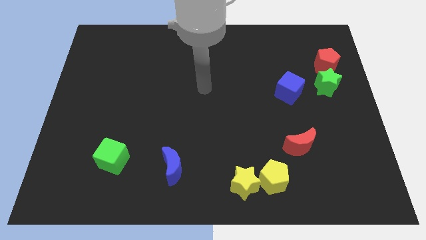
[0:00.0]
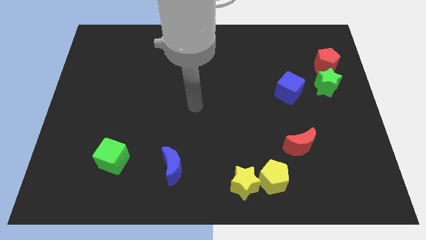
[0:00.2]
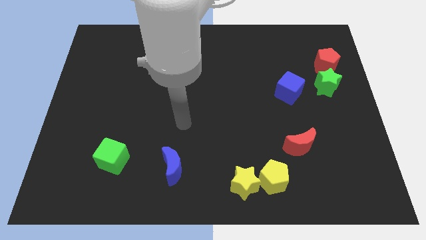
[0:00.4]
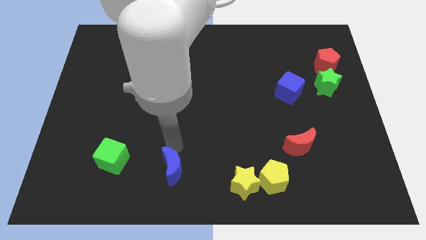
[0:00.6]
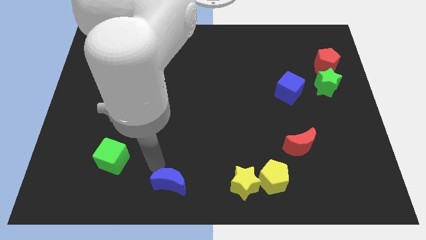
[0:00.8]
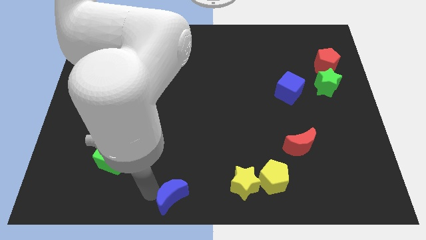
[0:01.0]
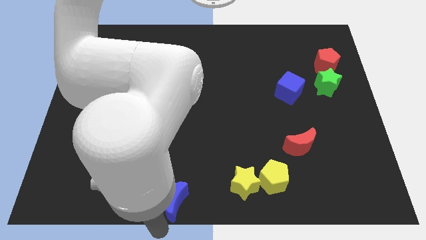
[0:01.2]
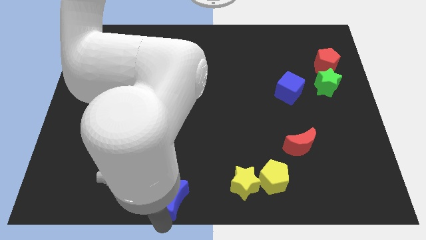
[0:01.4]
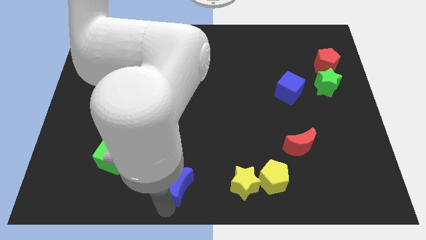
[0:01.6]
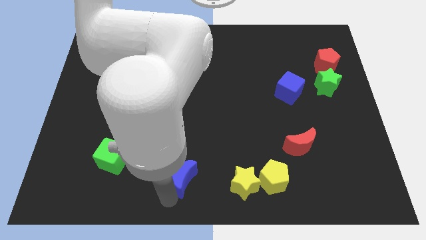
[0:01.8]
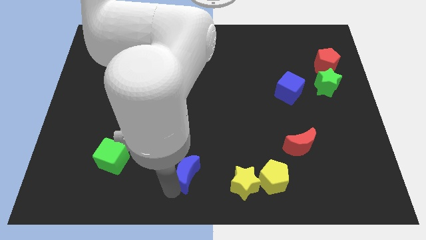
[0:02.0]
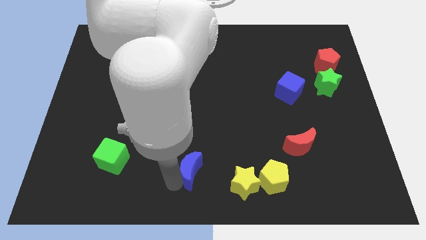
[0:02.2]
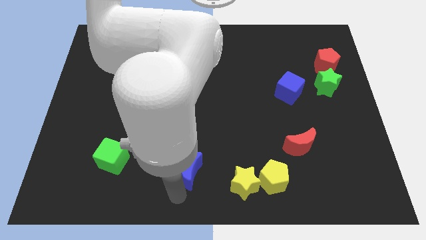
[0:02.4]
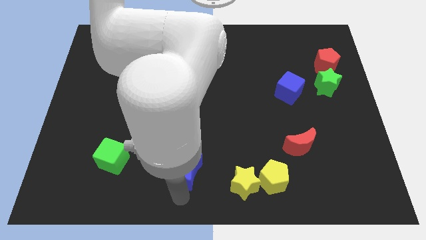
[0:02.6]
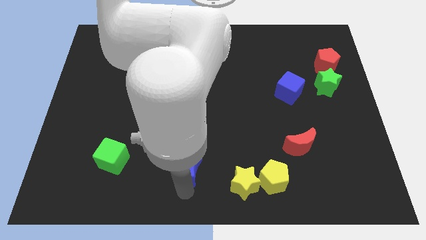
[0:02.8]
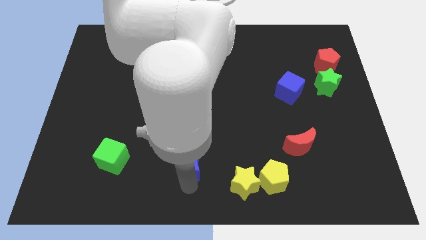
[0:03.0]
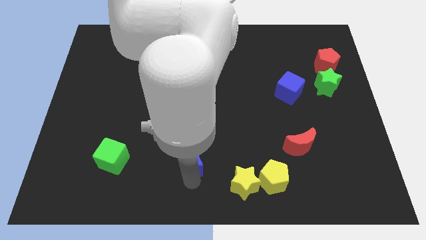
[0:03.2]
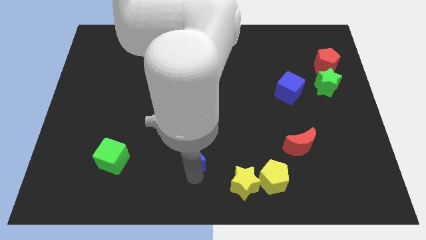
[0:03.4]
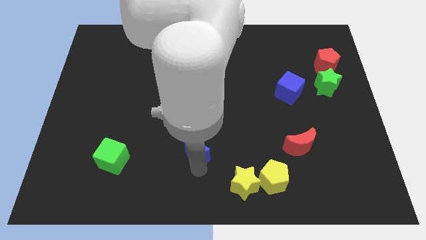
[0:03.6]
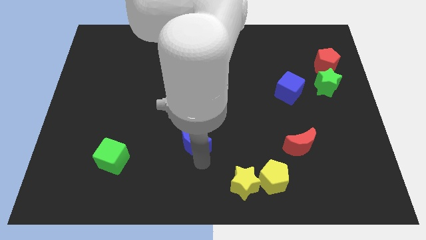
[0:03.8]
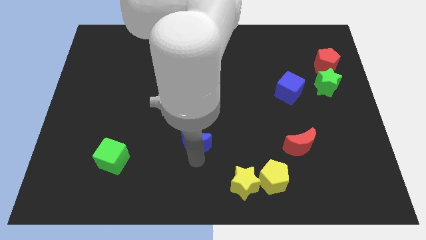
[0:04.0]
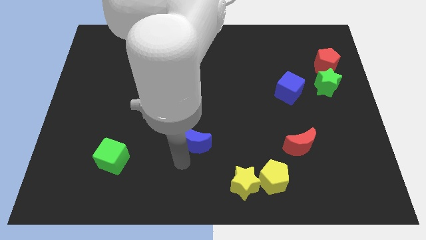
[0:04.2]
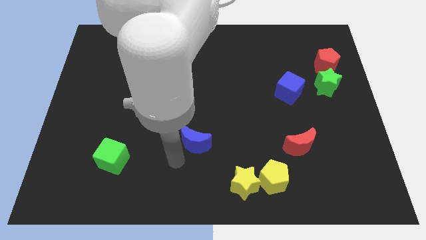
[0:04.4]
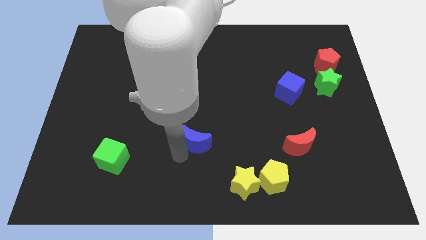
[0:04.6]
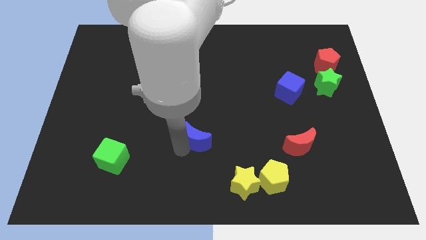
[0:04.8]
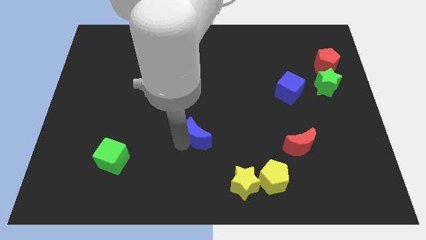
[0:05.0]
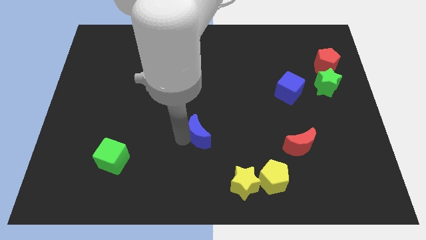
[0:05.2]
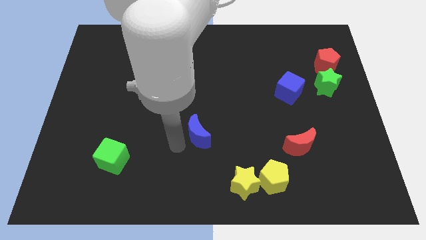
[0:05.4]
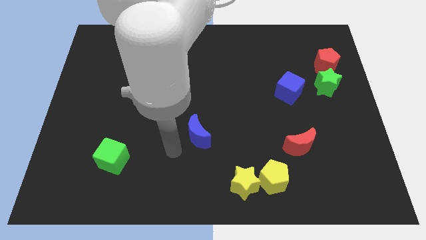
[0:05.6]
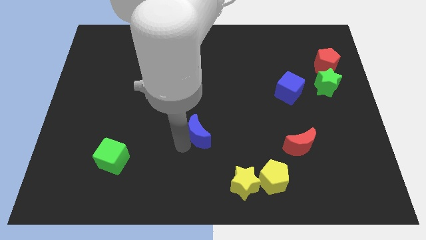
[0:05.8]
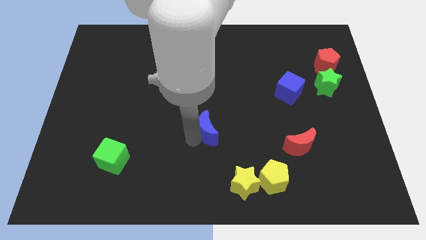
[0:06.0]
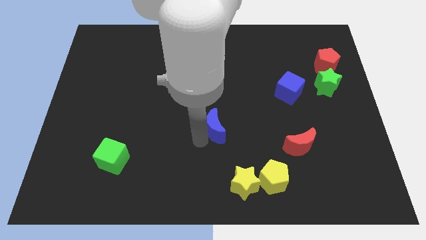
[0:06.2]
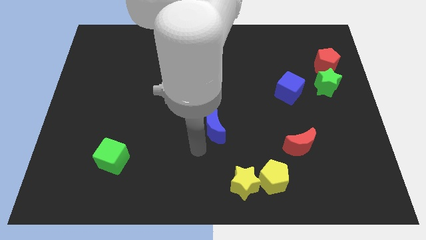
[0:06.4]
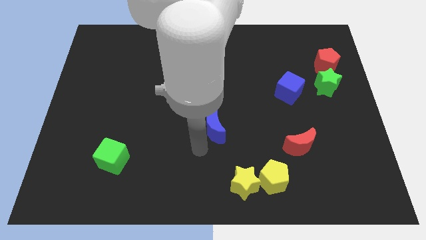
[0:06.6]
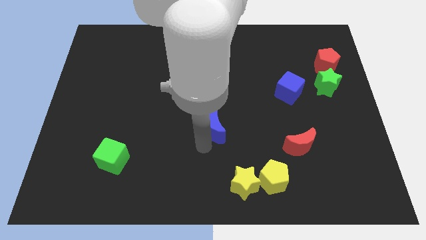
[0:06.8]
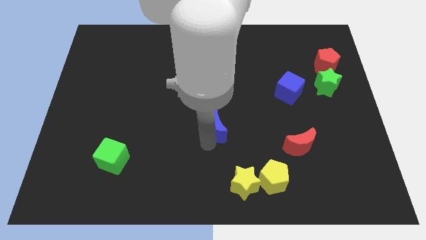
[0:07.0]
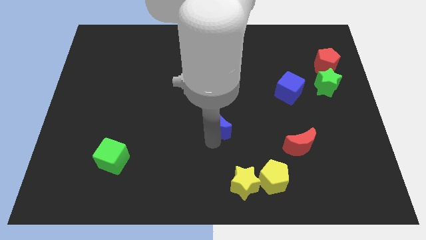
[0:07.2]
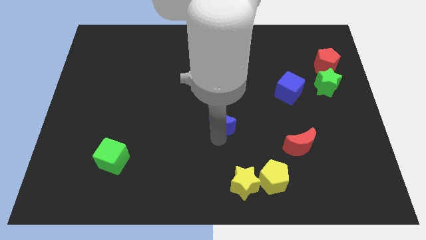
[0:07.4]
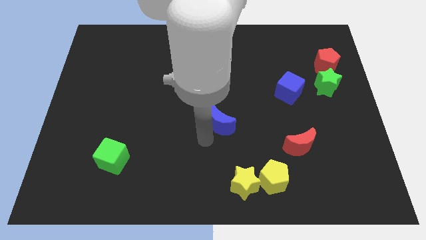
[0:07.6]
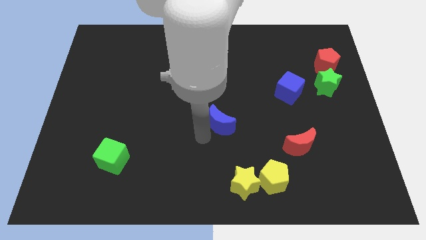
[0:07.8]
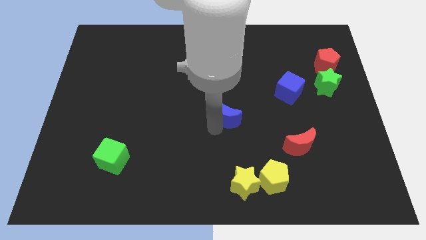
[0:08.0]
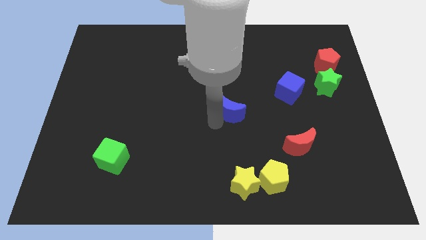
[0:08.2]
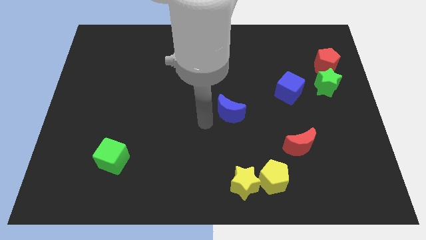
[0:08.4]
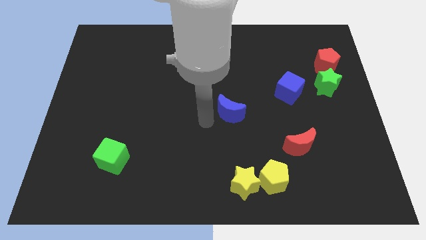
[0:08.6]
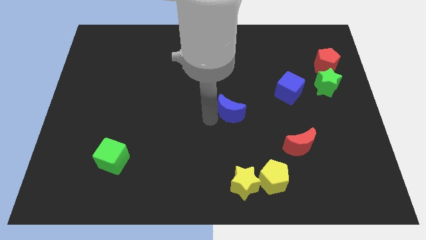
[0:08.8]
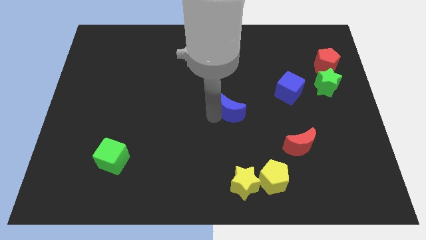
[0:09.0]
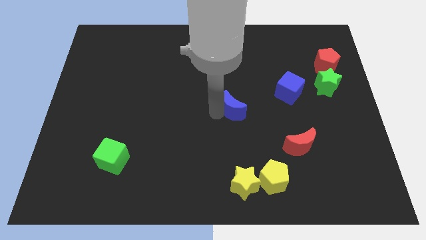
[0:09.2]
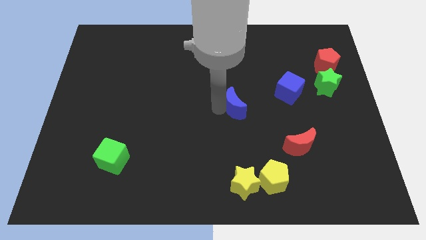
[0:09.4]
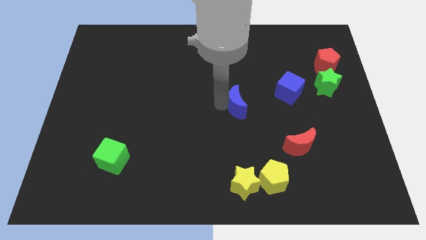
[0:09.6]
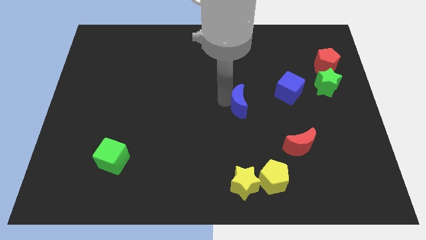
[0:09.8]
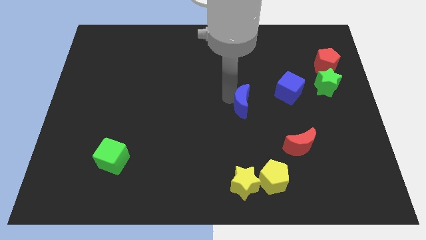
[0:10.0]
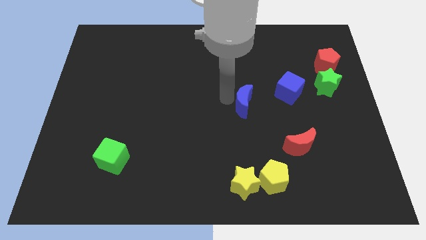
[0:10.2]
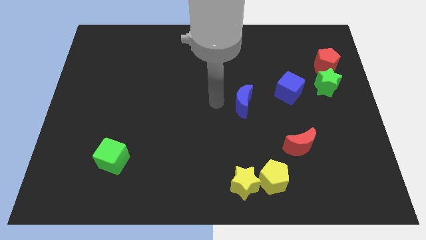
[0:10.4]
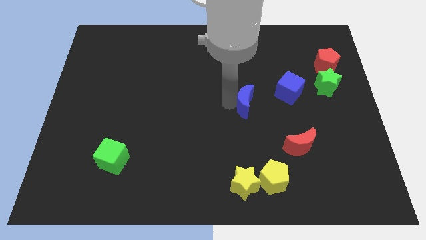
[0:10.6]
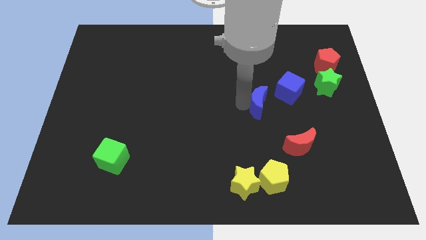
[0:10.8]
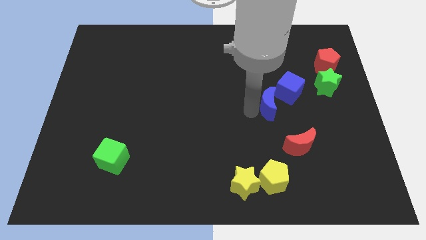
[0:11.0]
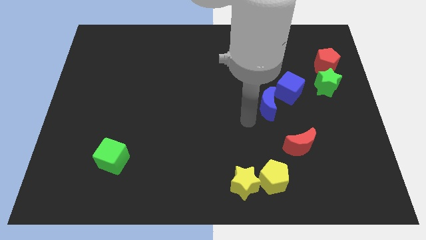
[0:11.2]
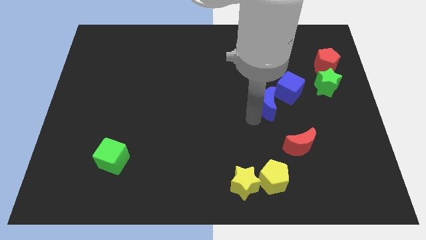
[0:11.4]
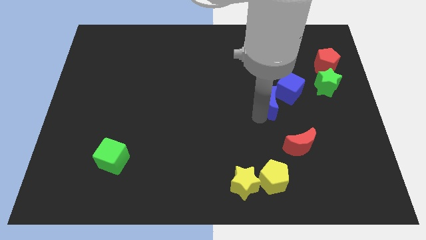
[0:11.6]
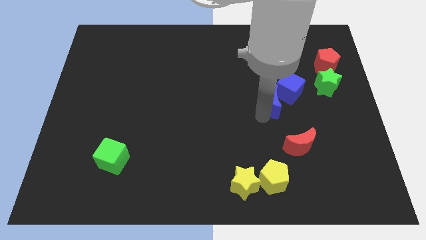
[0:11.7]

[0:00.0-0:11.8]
move the blue moon towards the blue cube

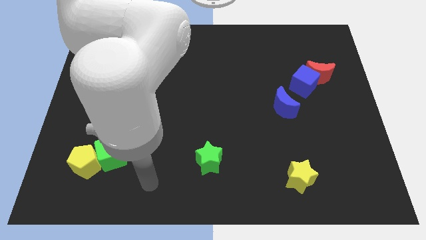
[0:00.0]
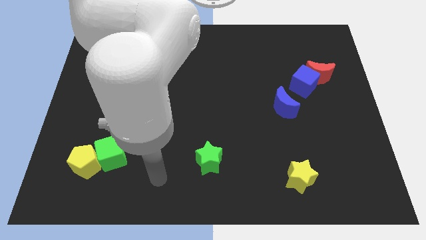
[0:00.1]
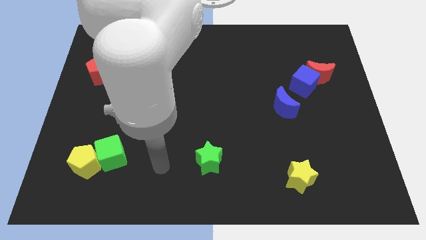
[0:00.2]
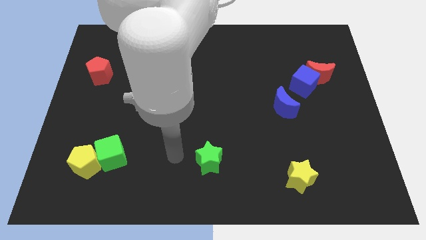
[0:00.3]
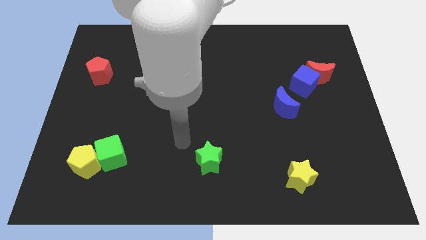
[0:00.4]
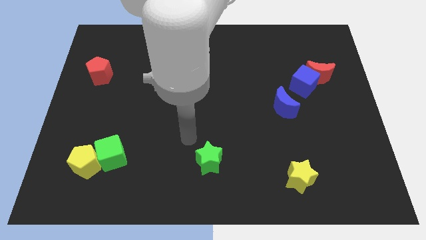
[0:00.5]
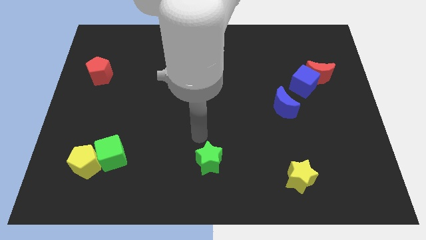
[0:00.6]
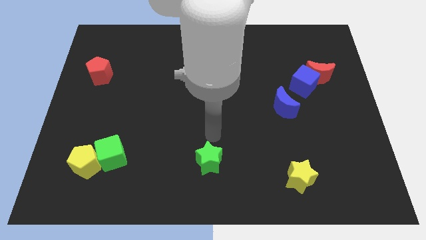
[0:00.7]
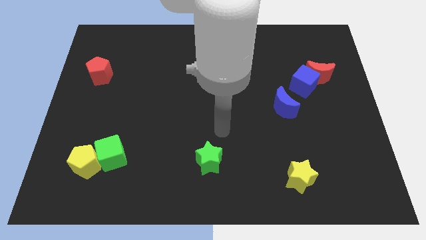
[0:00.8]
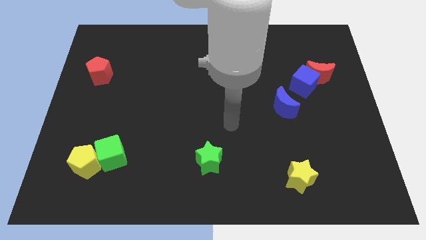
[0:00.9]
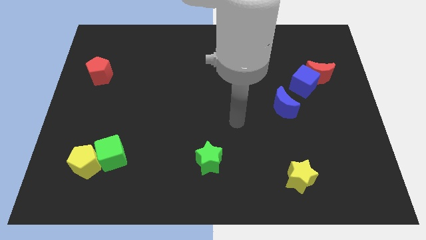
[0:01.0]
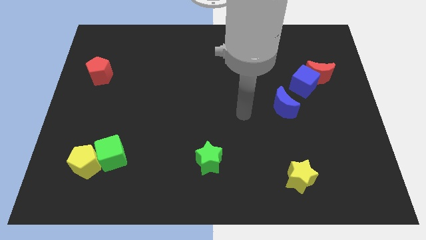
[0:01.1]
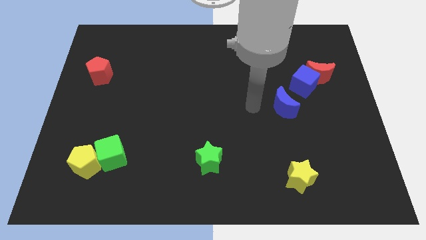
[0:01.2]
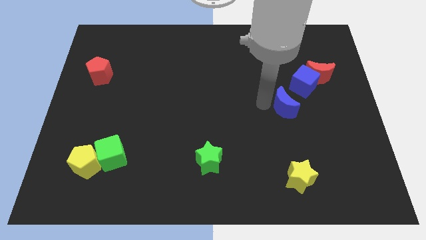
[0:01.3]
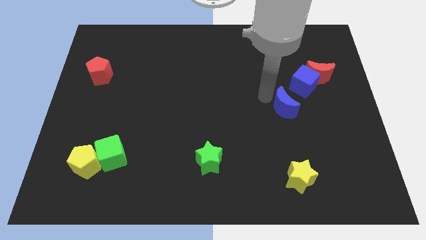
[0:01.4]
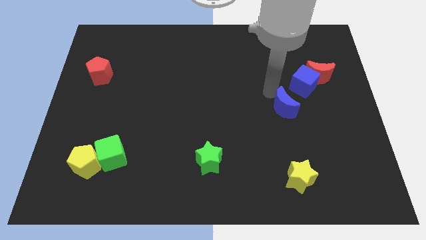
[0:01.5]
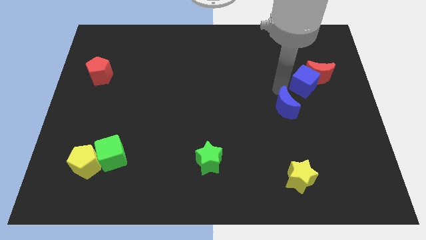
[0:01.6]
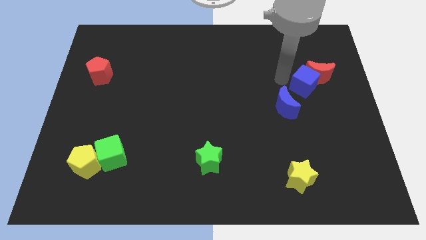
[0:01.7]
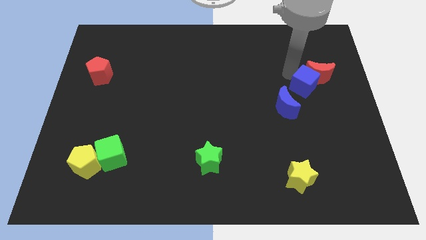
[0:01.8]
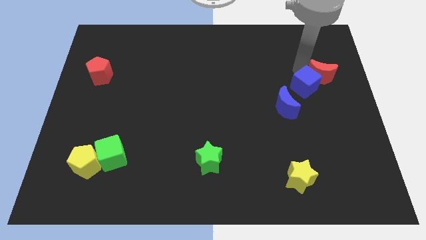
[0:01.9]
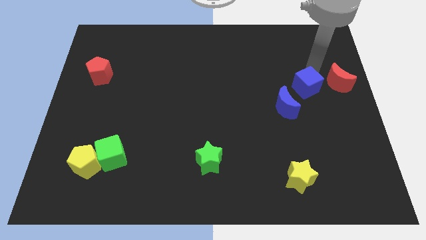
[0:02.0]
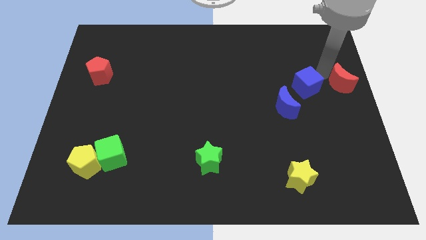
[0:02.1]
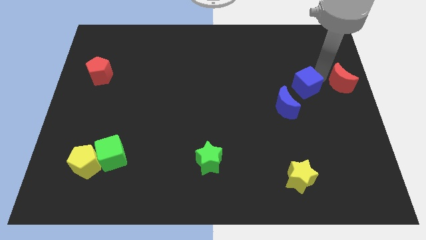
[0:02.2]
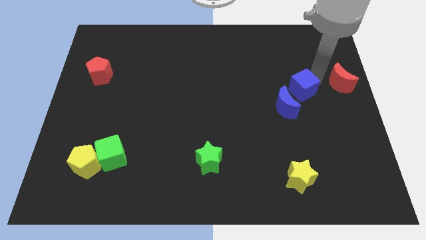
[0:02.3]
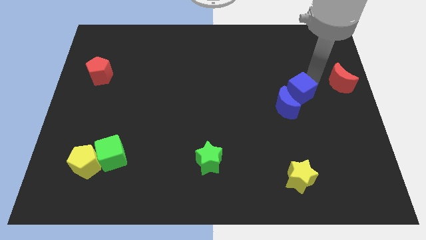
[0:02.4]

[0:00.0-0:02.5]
move the blue cube next to the blue moon
